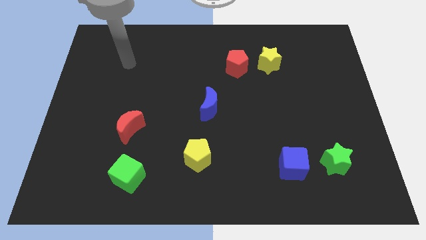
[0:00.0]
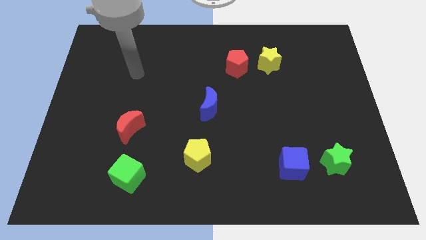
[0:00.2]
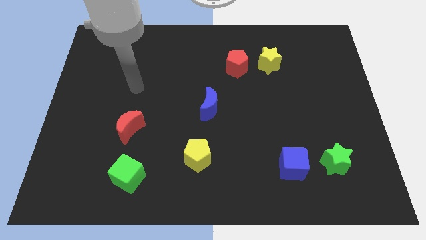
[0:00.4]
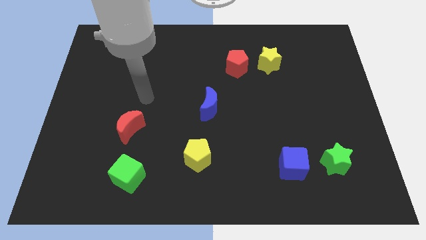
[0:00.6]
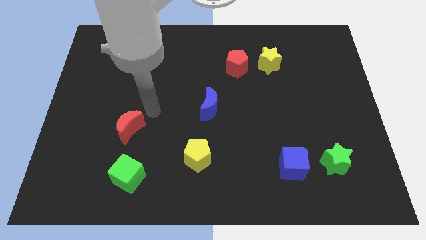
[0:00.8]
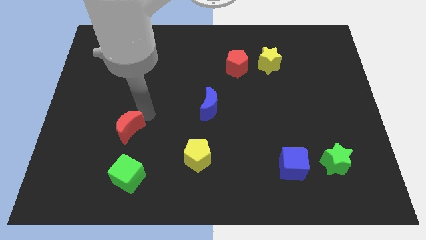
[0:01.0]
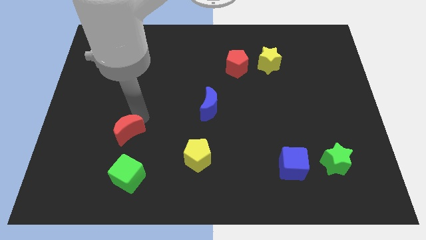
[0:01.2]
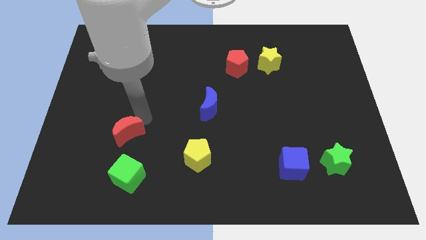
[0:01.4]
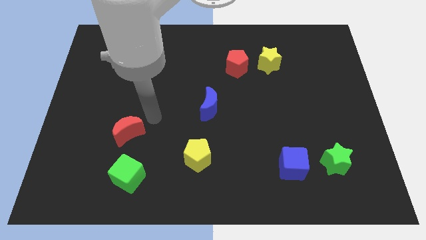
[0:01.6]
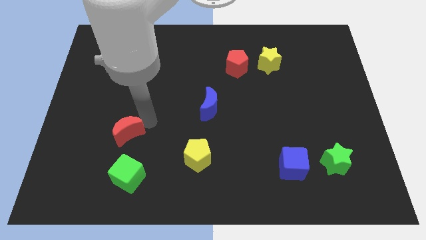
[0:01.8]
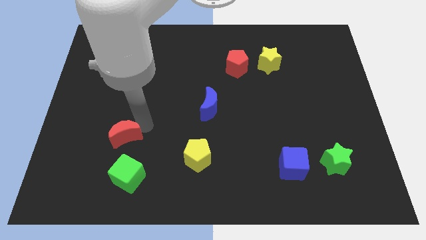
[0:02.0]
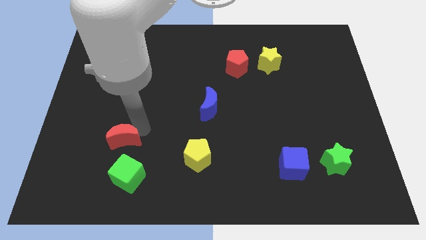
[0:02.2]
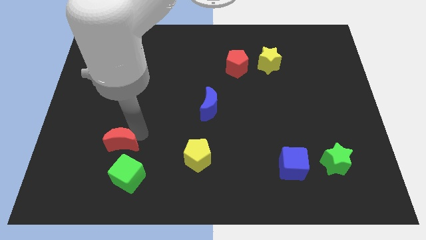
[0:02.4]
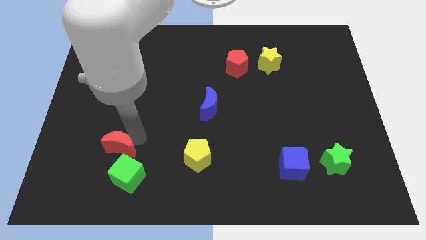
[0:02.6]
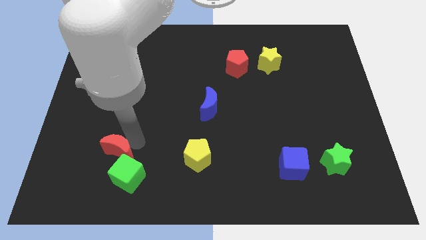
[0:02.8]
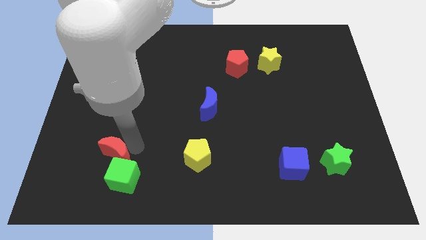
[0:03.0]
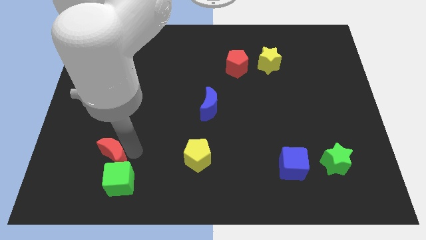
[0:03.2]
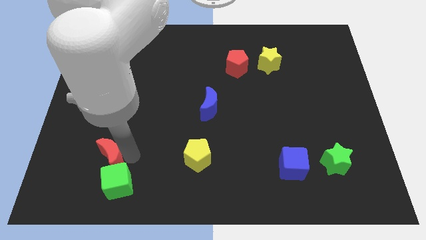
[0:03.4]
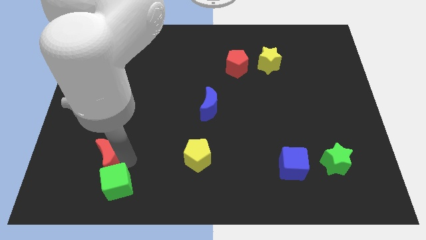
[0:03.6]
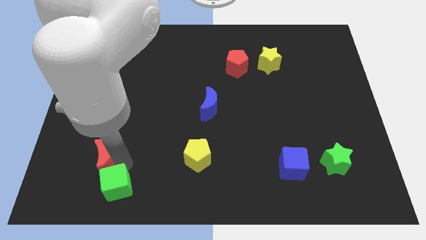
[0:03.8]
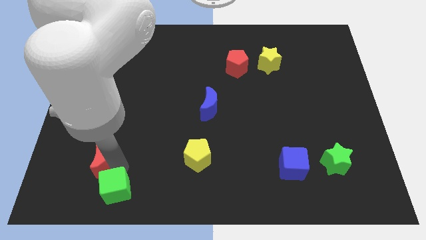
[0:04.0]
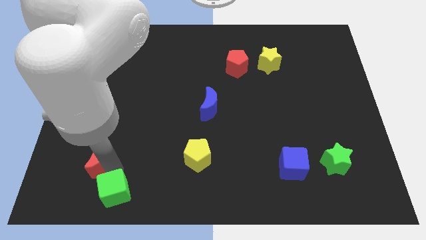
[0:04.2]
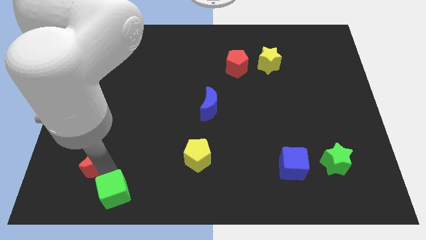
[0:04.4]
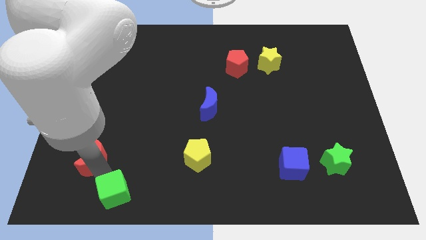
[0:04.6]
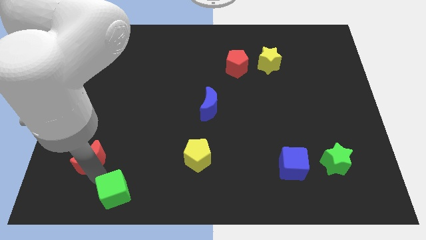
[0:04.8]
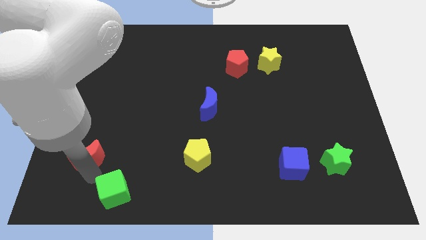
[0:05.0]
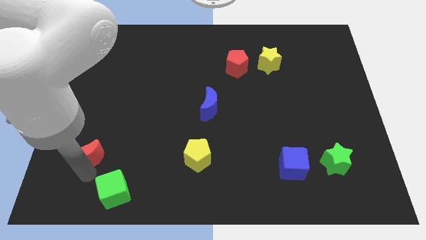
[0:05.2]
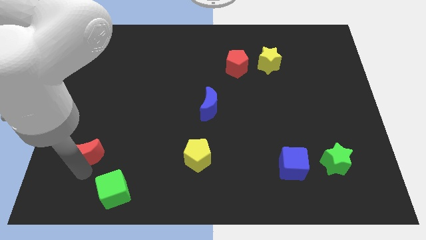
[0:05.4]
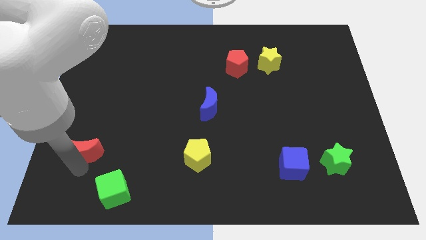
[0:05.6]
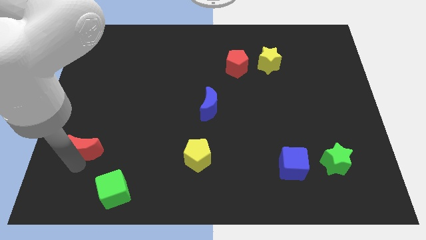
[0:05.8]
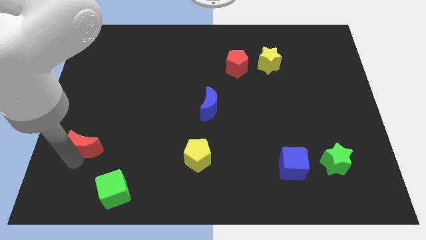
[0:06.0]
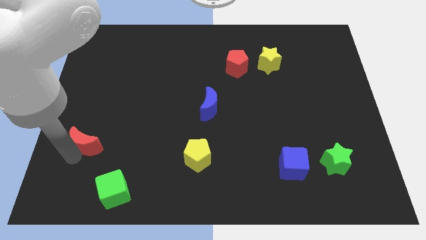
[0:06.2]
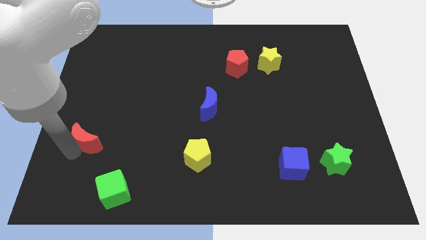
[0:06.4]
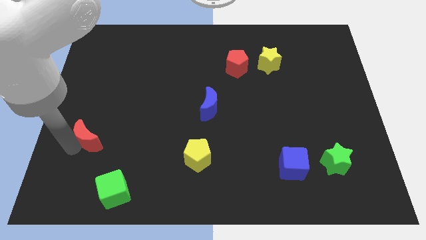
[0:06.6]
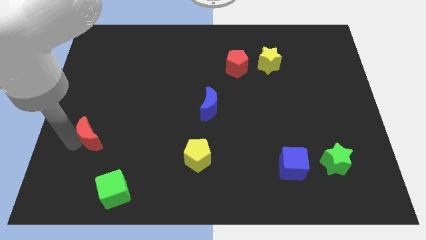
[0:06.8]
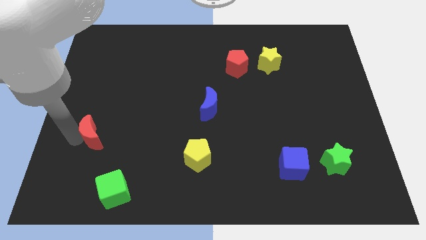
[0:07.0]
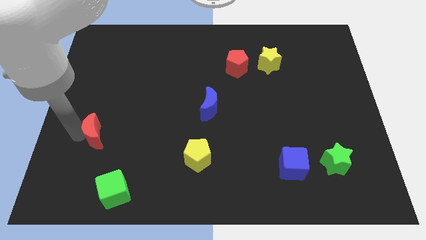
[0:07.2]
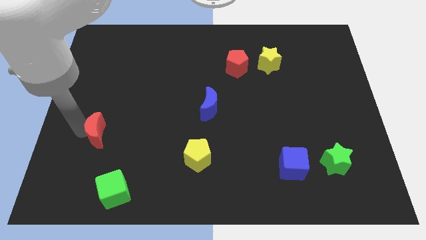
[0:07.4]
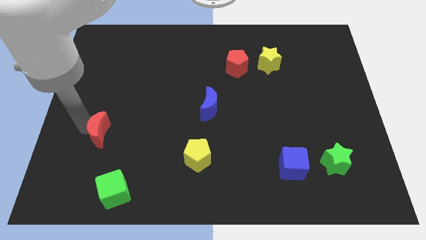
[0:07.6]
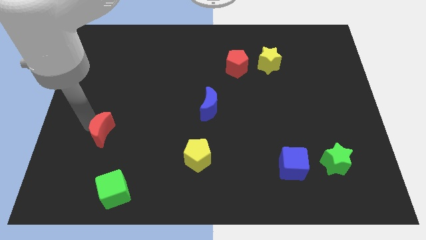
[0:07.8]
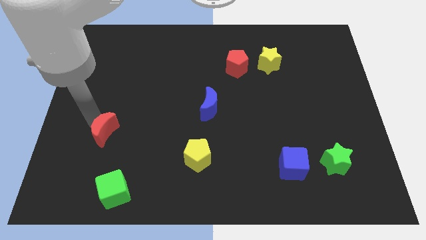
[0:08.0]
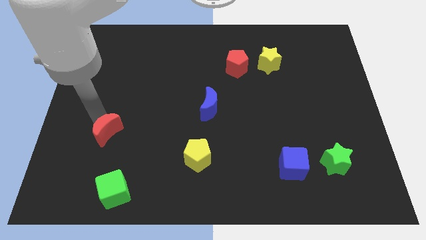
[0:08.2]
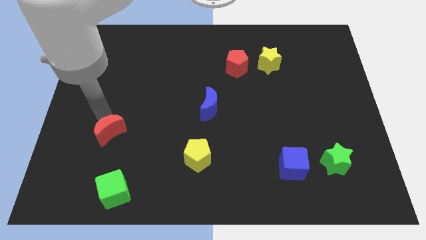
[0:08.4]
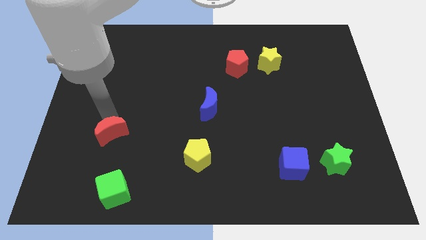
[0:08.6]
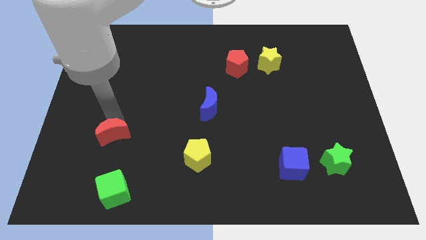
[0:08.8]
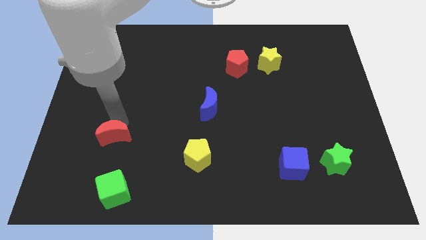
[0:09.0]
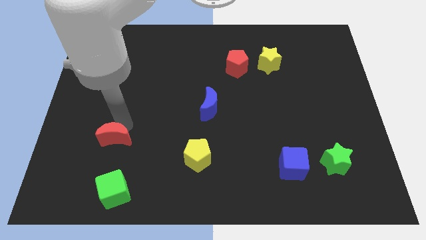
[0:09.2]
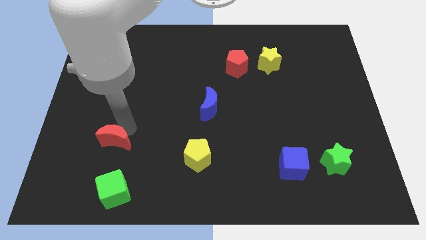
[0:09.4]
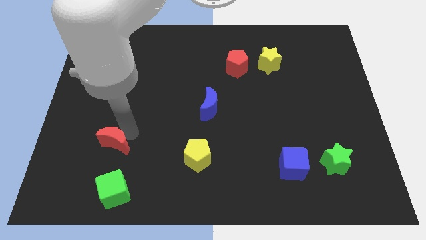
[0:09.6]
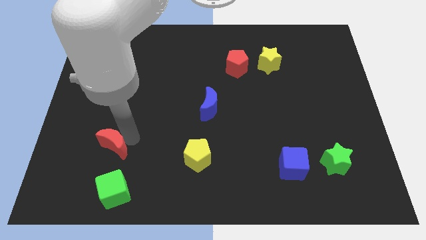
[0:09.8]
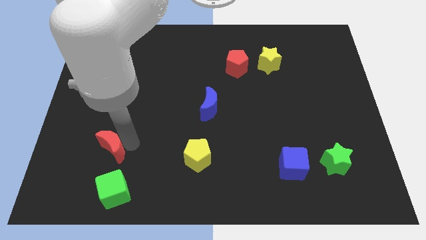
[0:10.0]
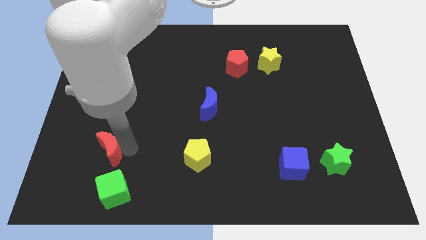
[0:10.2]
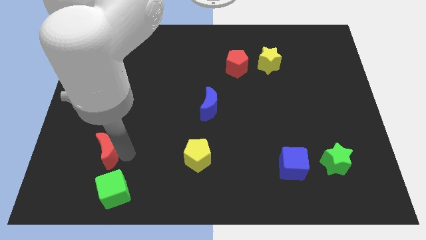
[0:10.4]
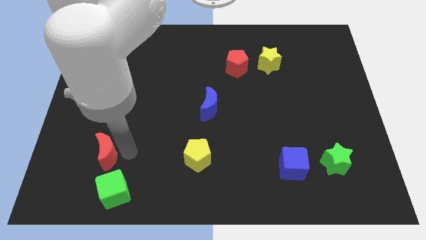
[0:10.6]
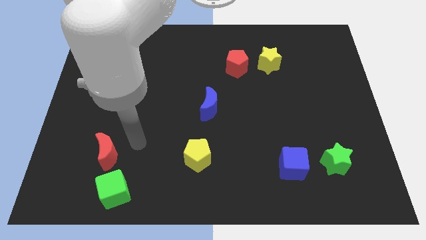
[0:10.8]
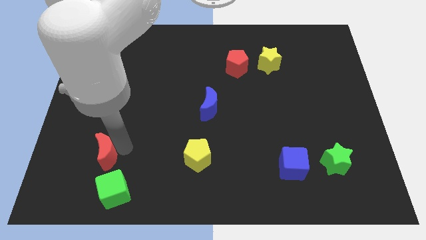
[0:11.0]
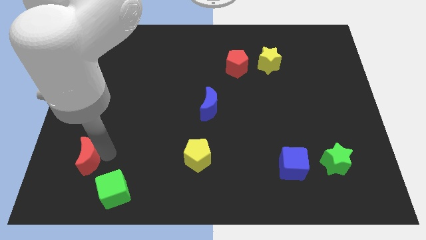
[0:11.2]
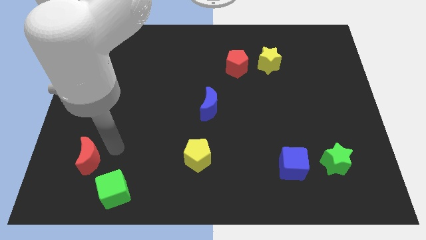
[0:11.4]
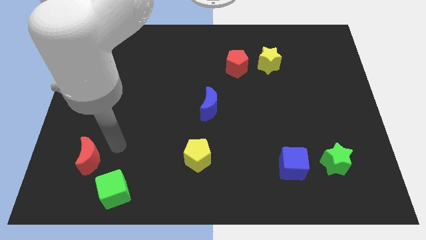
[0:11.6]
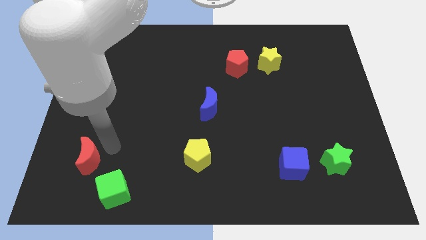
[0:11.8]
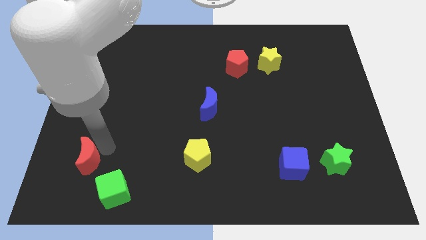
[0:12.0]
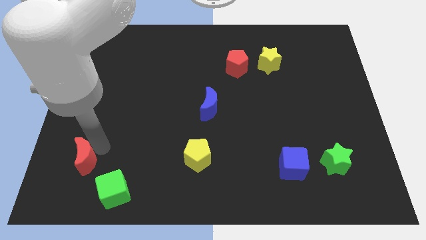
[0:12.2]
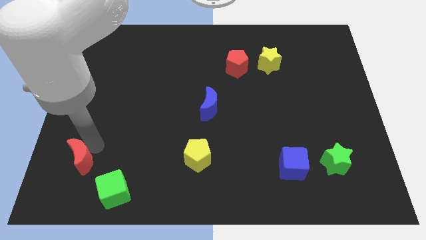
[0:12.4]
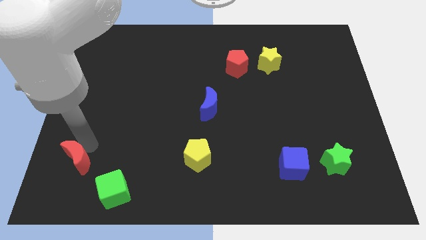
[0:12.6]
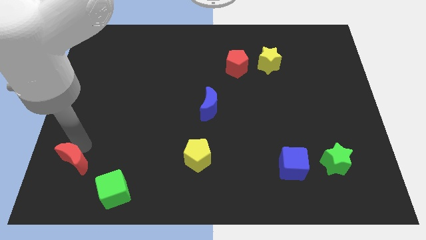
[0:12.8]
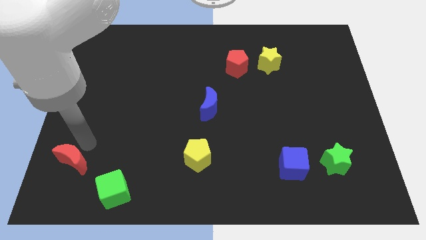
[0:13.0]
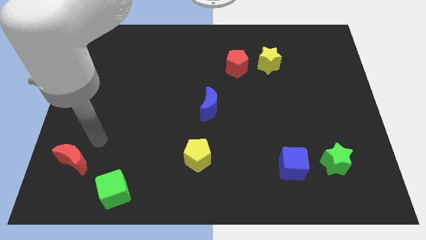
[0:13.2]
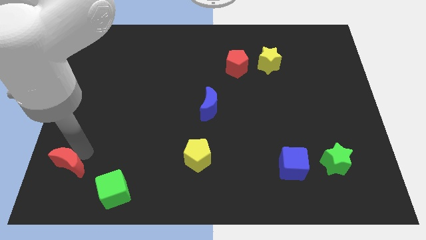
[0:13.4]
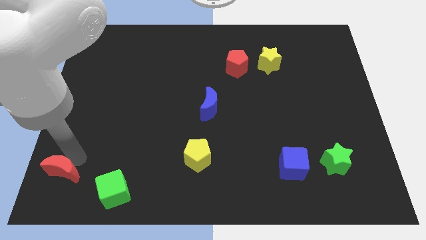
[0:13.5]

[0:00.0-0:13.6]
slide the red moon to the bottom left of the board

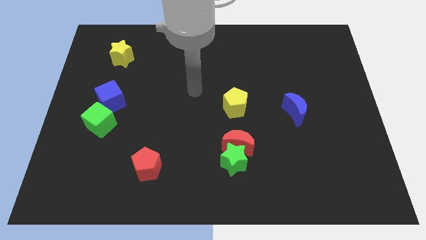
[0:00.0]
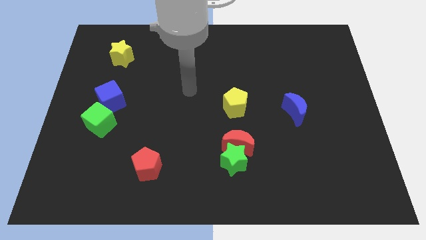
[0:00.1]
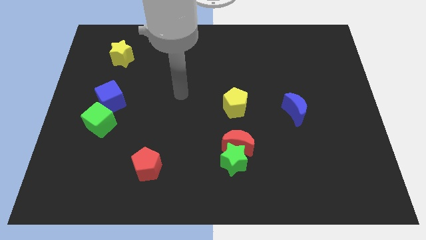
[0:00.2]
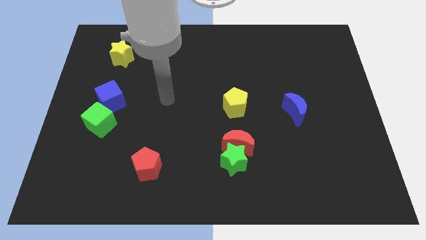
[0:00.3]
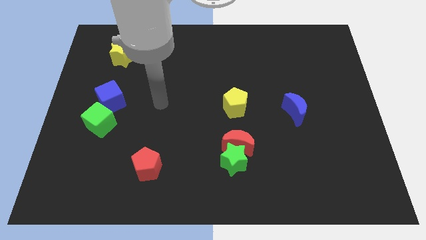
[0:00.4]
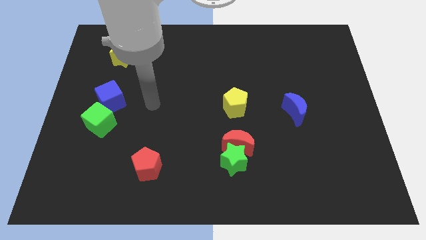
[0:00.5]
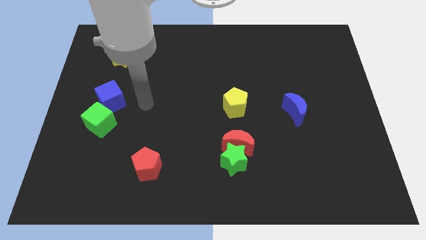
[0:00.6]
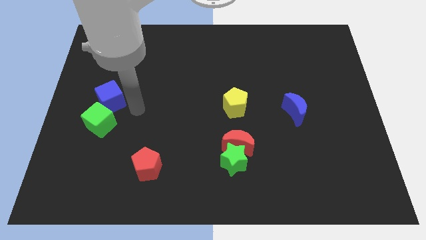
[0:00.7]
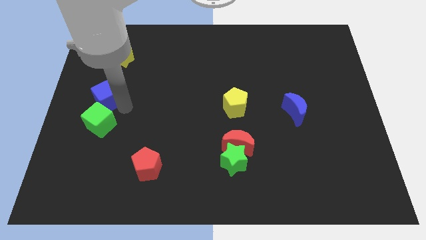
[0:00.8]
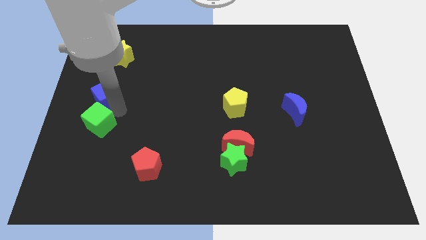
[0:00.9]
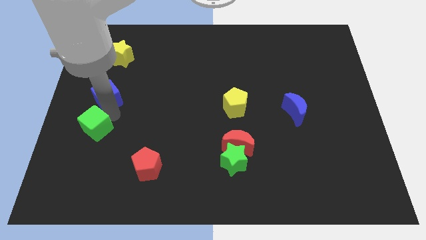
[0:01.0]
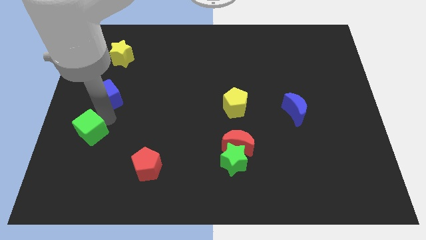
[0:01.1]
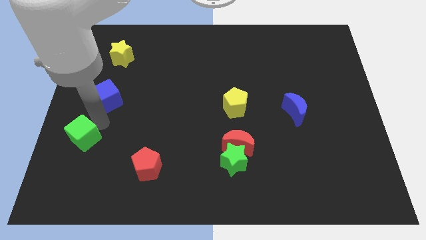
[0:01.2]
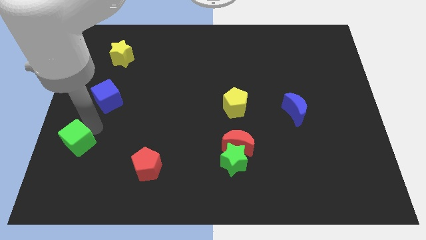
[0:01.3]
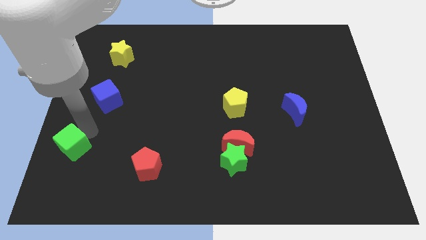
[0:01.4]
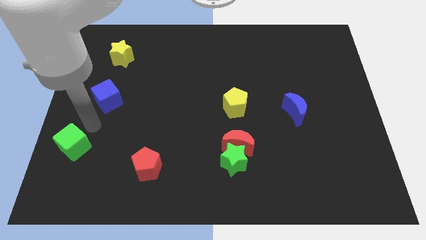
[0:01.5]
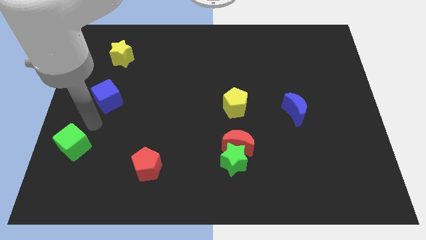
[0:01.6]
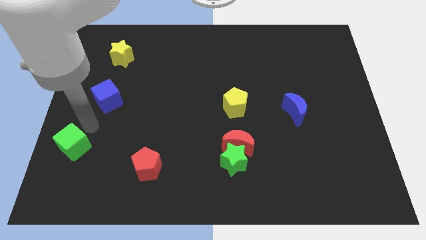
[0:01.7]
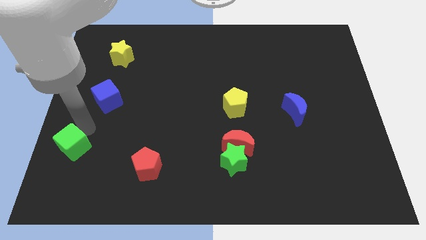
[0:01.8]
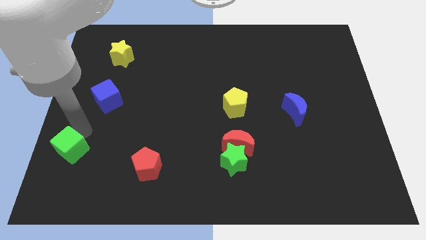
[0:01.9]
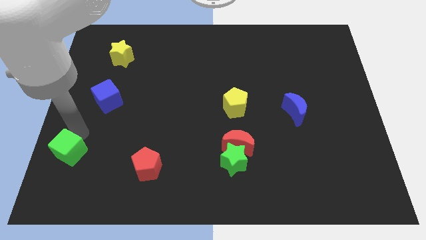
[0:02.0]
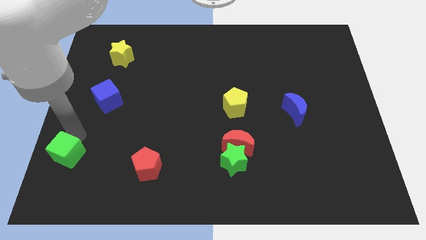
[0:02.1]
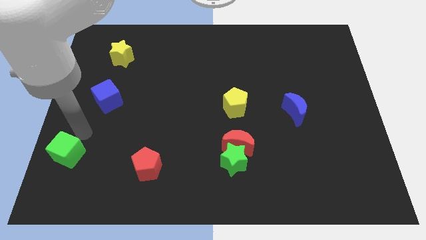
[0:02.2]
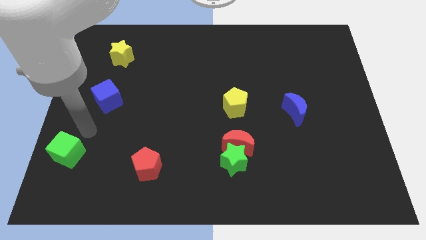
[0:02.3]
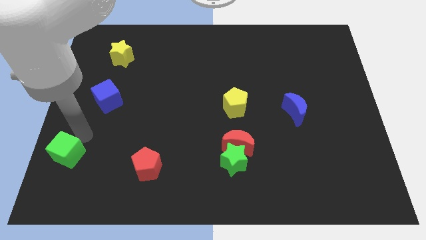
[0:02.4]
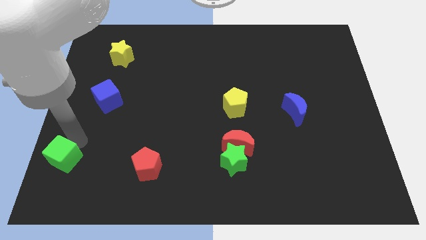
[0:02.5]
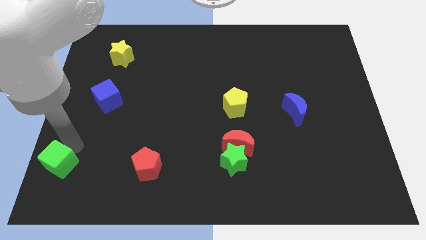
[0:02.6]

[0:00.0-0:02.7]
move the green cube to the lower left corner
